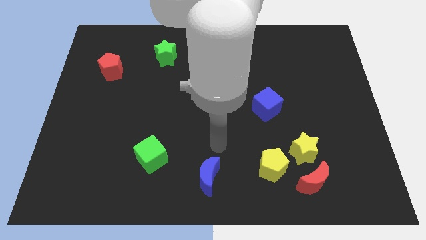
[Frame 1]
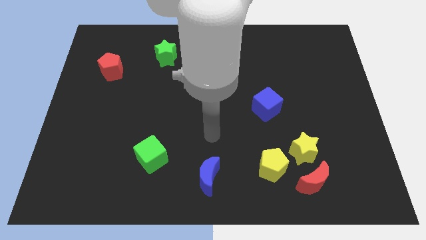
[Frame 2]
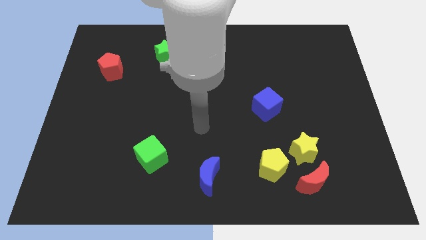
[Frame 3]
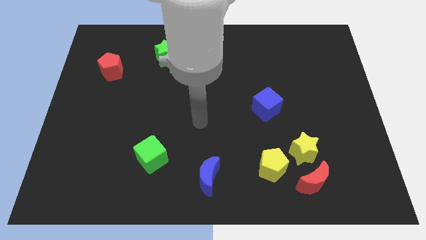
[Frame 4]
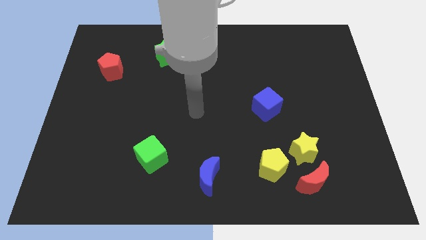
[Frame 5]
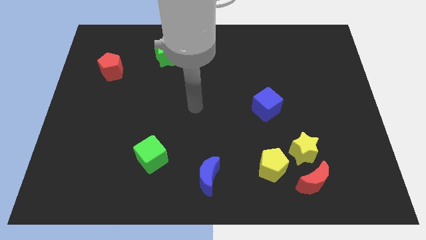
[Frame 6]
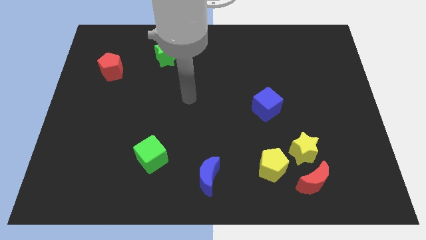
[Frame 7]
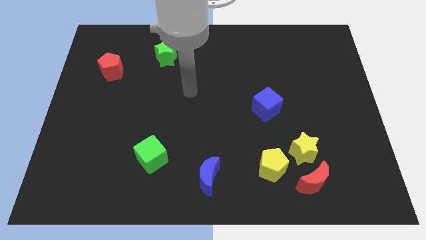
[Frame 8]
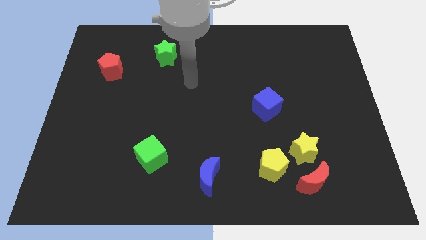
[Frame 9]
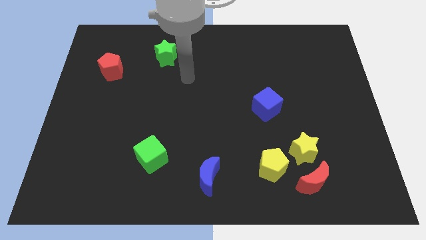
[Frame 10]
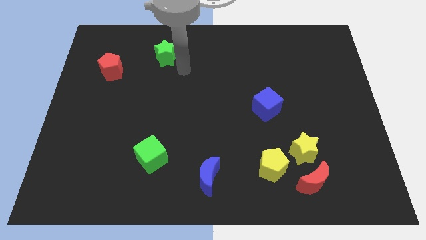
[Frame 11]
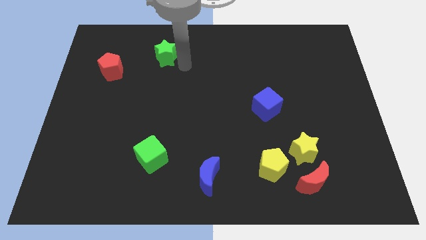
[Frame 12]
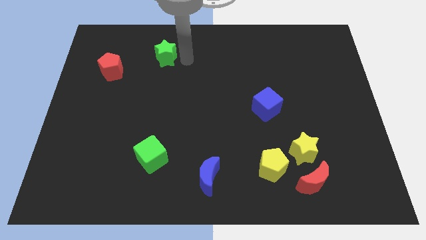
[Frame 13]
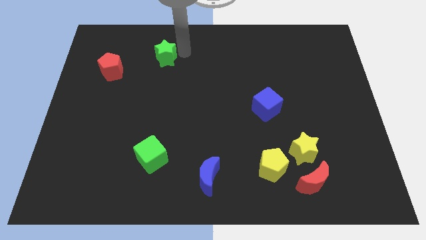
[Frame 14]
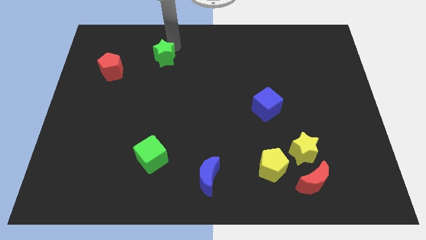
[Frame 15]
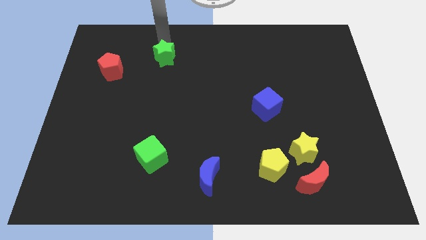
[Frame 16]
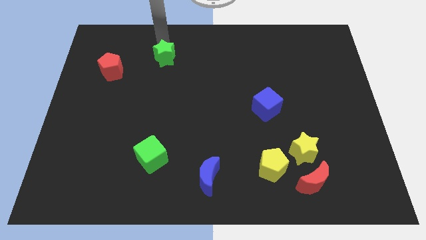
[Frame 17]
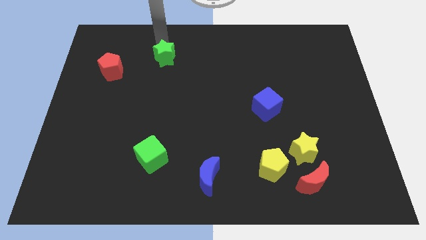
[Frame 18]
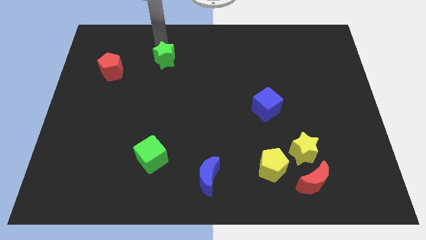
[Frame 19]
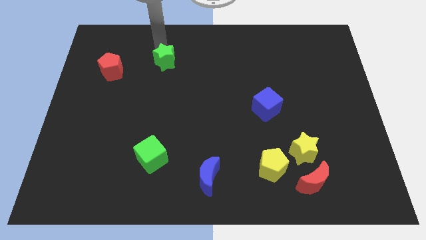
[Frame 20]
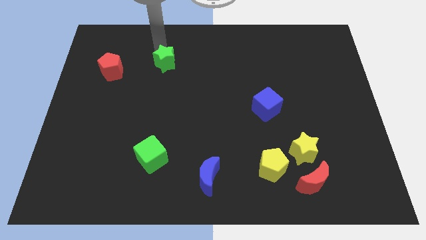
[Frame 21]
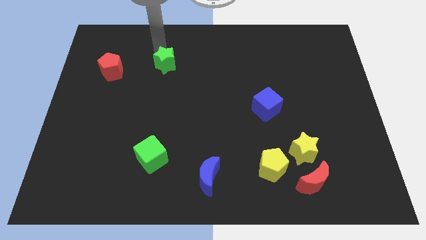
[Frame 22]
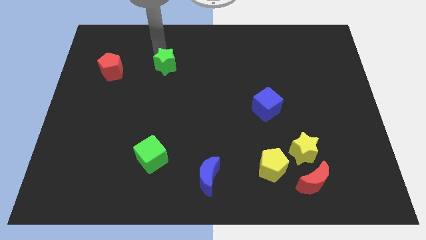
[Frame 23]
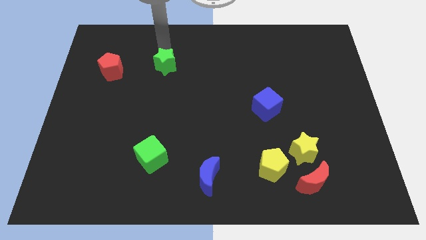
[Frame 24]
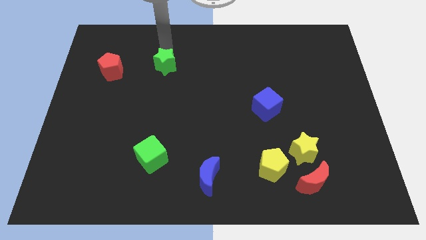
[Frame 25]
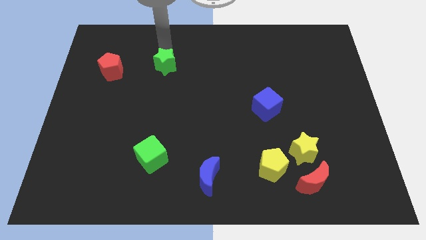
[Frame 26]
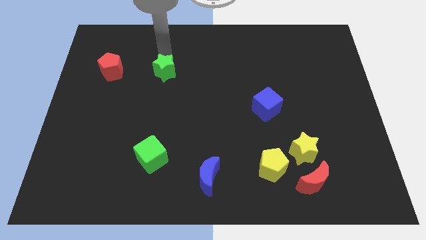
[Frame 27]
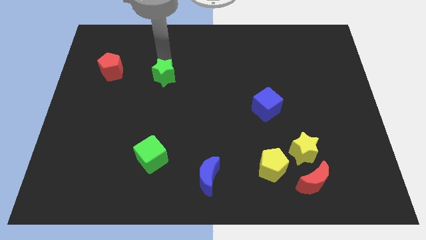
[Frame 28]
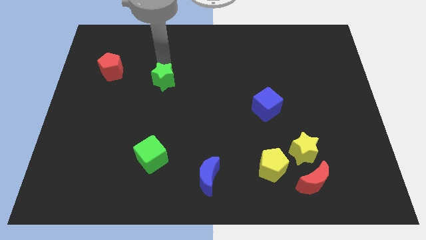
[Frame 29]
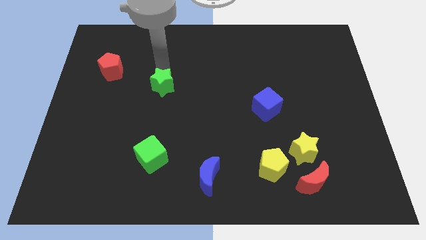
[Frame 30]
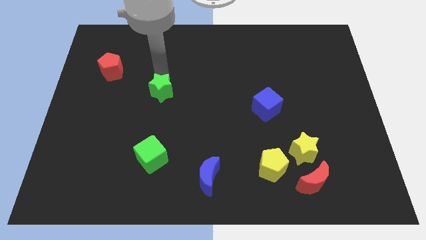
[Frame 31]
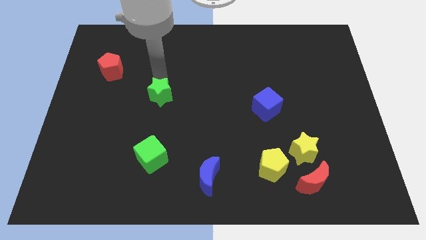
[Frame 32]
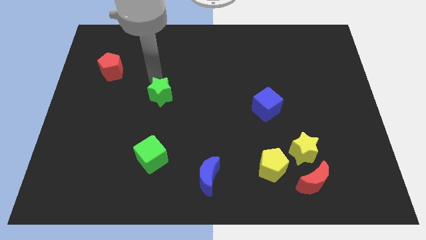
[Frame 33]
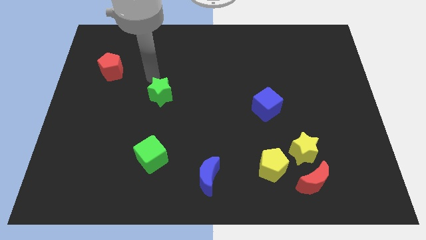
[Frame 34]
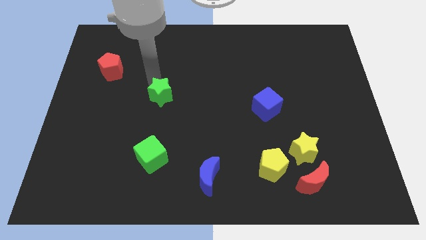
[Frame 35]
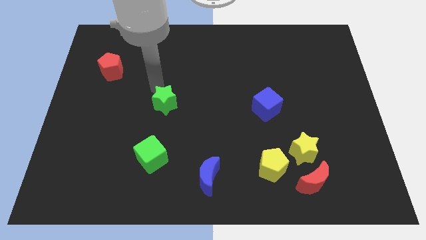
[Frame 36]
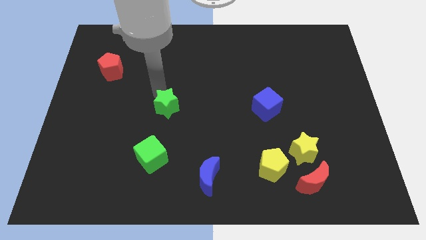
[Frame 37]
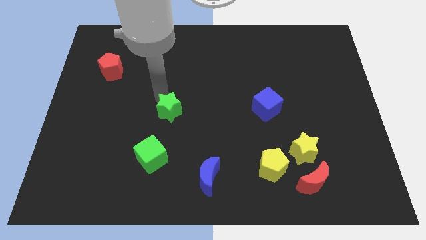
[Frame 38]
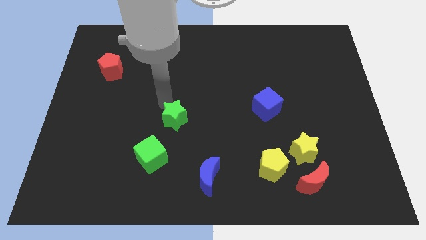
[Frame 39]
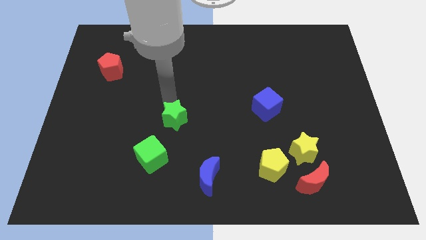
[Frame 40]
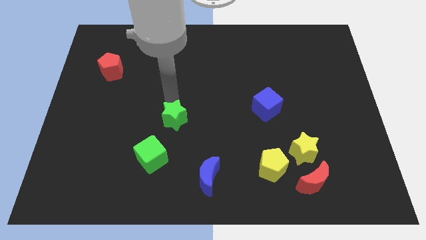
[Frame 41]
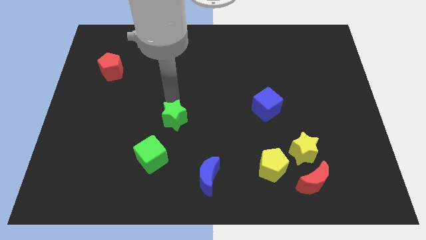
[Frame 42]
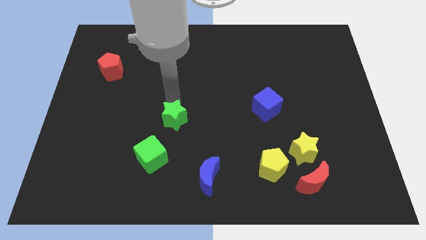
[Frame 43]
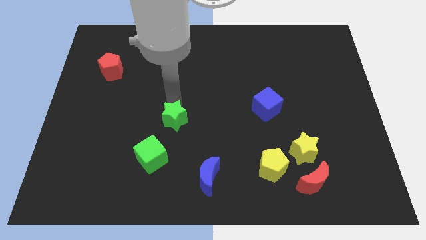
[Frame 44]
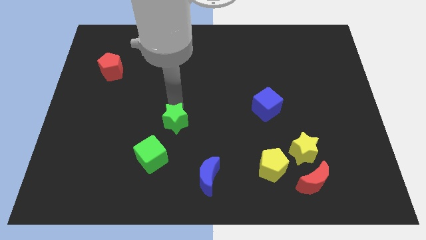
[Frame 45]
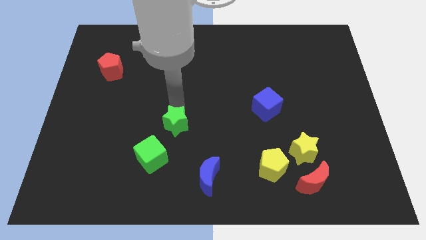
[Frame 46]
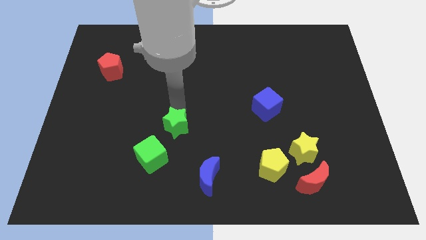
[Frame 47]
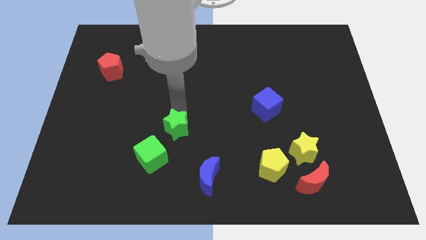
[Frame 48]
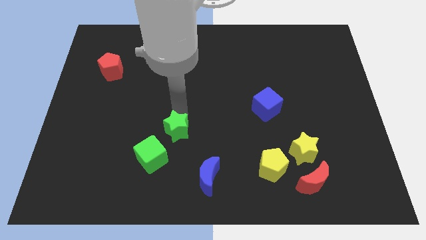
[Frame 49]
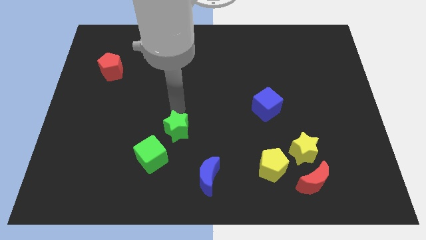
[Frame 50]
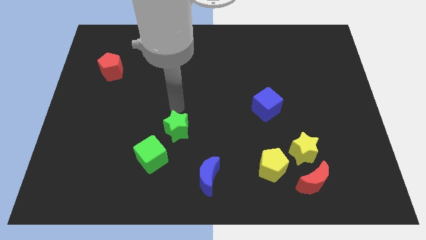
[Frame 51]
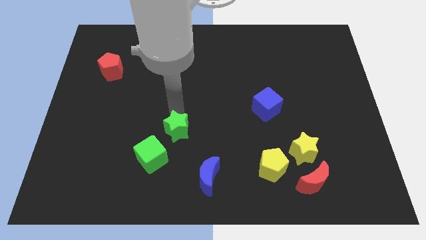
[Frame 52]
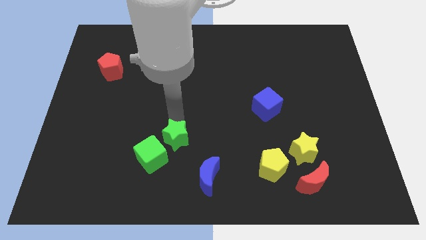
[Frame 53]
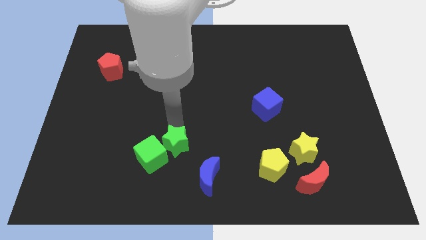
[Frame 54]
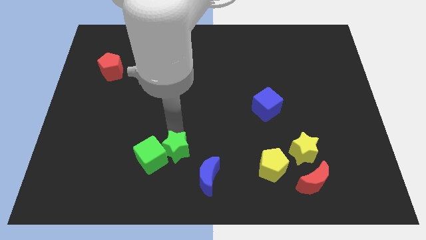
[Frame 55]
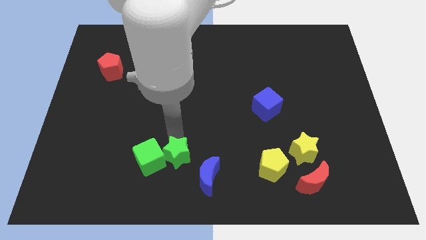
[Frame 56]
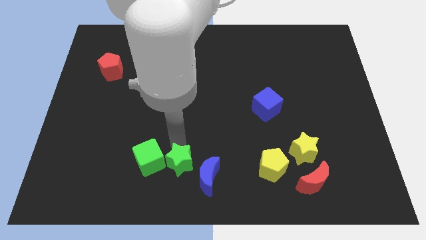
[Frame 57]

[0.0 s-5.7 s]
move the green star to the left of the blue moon
